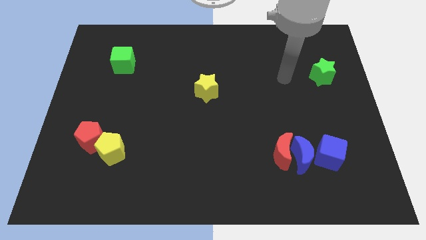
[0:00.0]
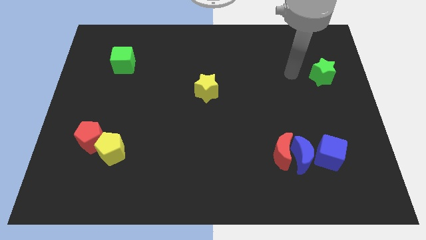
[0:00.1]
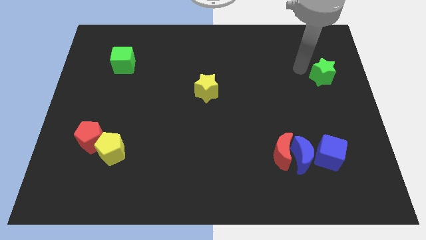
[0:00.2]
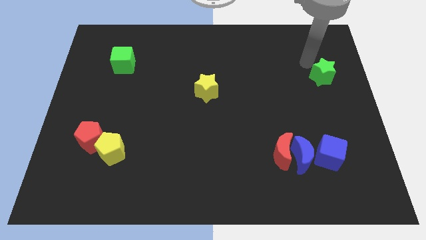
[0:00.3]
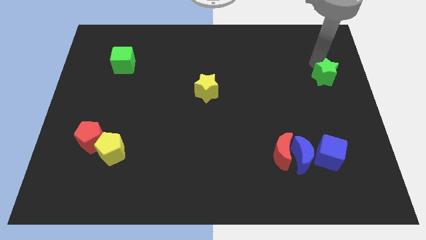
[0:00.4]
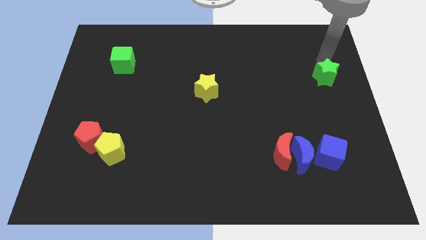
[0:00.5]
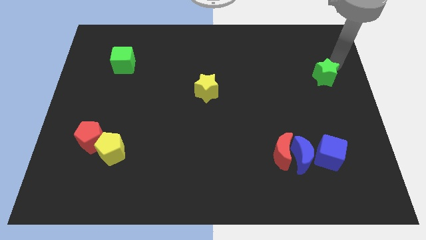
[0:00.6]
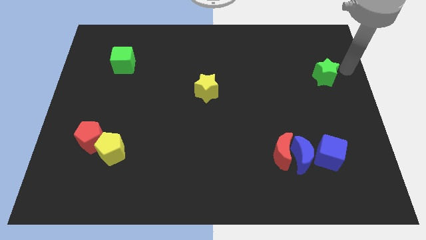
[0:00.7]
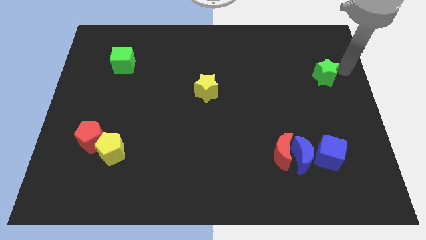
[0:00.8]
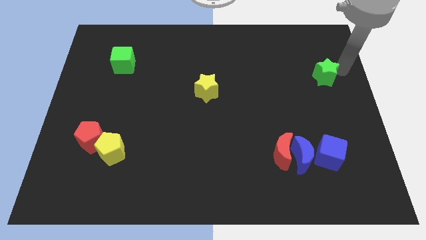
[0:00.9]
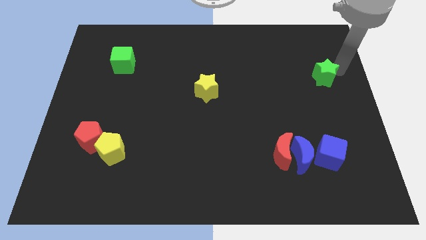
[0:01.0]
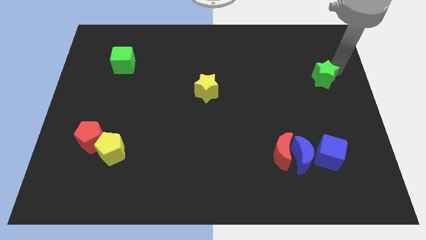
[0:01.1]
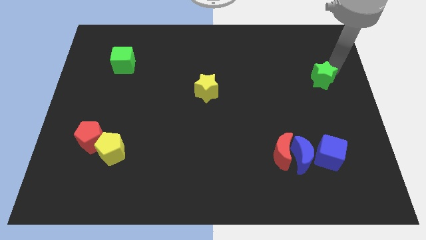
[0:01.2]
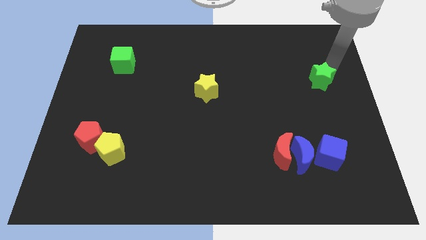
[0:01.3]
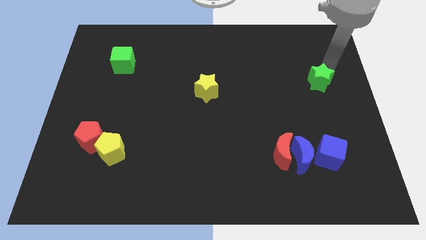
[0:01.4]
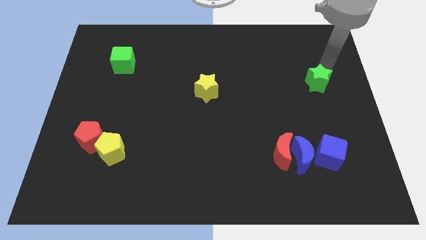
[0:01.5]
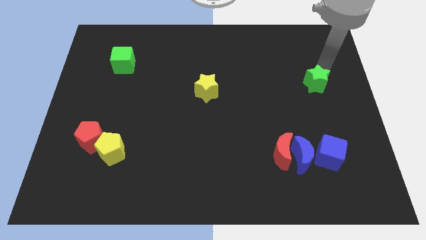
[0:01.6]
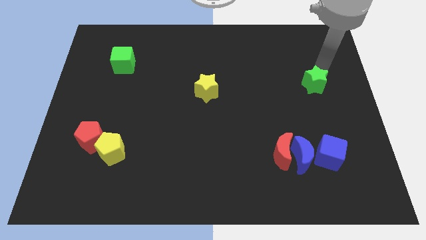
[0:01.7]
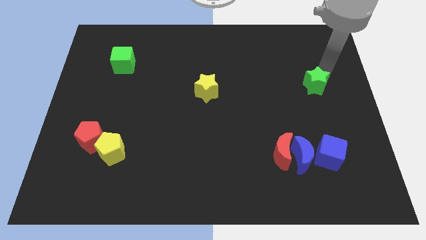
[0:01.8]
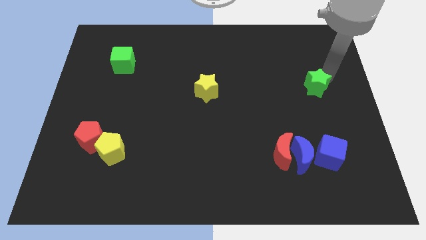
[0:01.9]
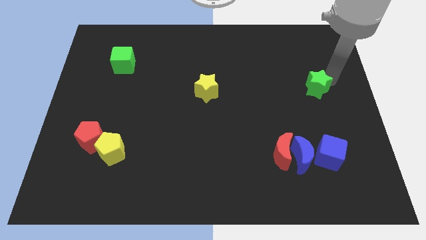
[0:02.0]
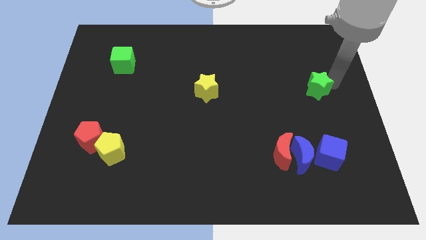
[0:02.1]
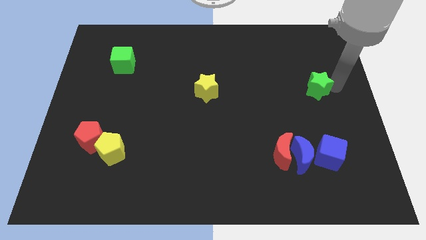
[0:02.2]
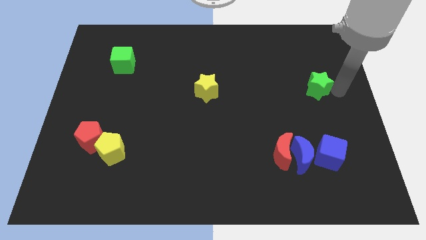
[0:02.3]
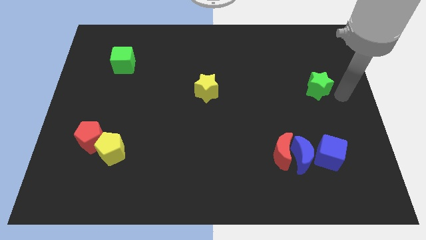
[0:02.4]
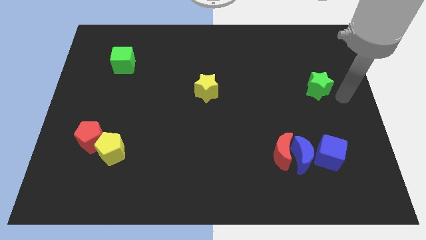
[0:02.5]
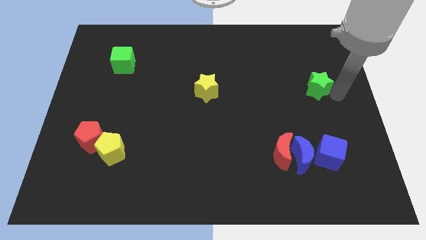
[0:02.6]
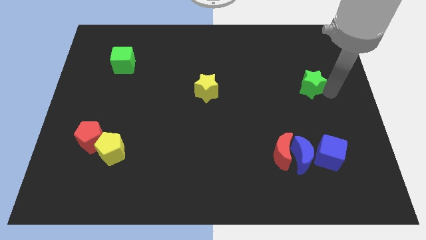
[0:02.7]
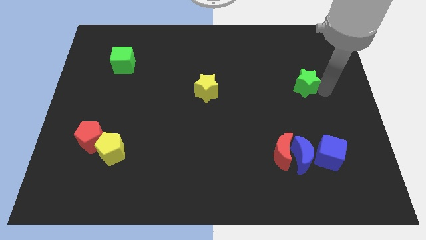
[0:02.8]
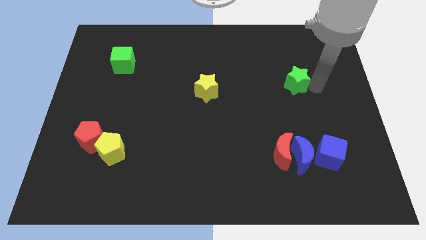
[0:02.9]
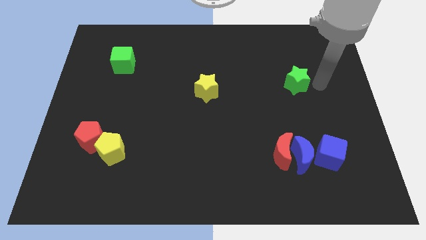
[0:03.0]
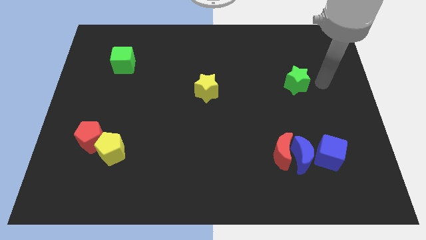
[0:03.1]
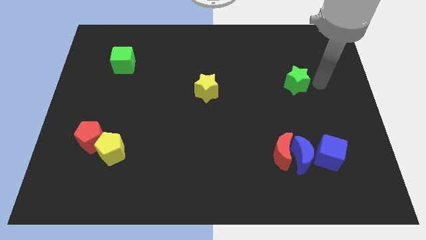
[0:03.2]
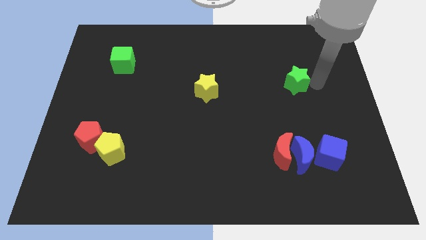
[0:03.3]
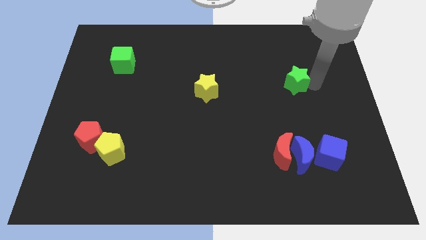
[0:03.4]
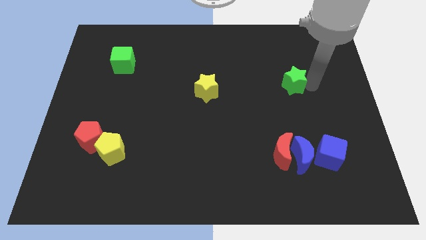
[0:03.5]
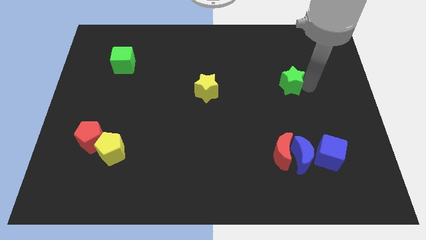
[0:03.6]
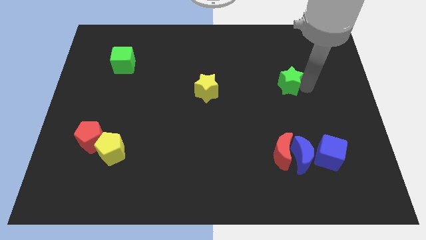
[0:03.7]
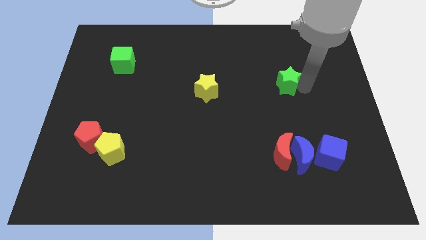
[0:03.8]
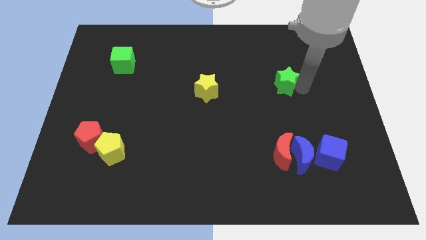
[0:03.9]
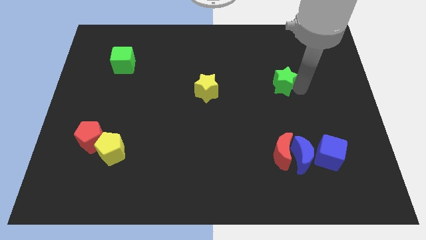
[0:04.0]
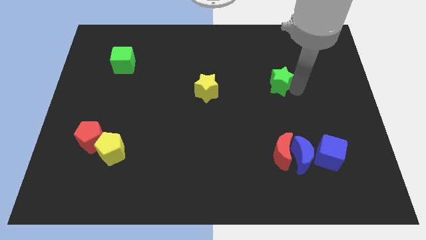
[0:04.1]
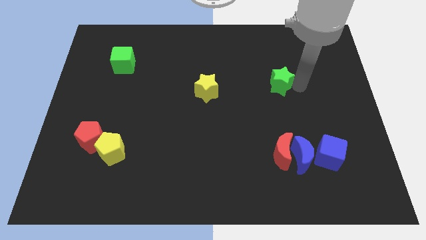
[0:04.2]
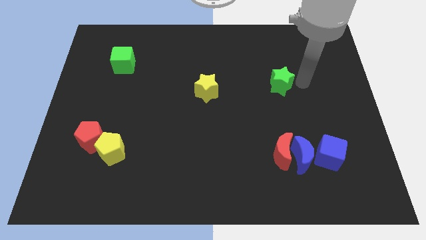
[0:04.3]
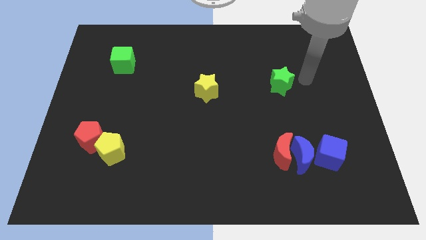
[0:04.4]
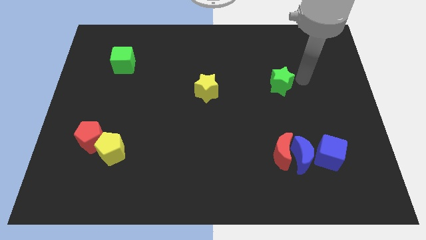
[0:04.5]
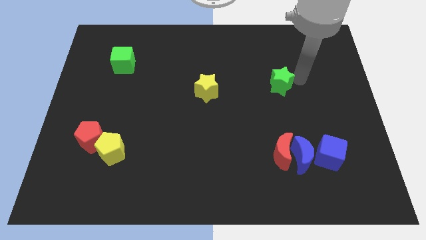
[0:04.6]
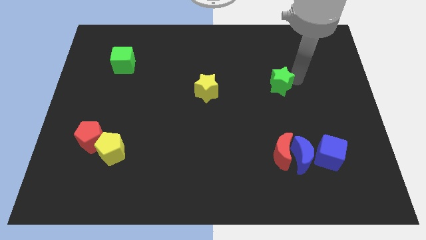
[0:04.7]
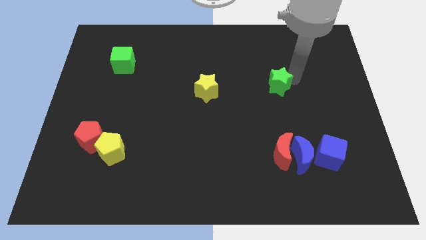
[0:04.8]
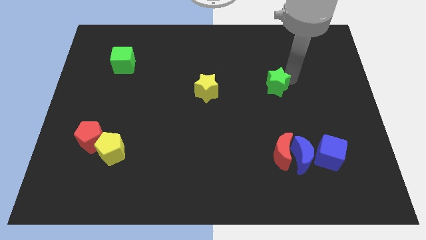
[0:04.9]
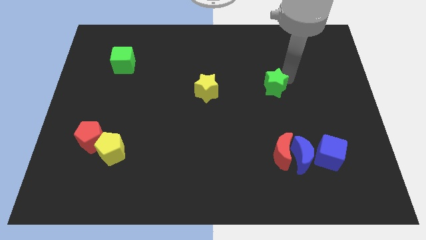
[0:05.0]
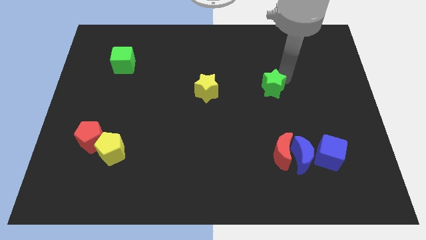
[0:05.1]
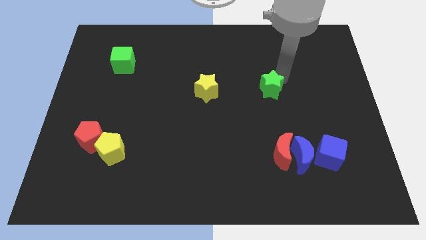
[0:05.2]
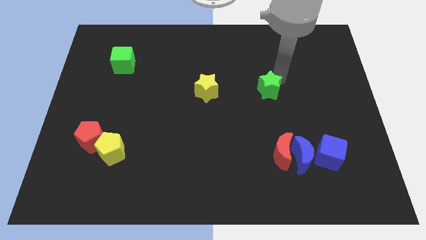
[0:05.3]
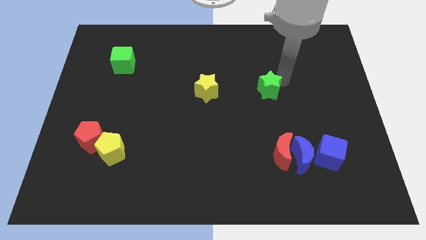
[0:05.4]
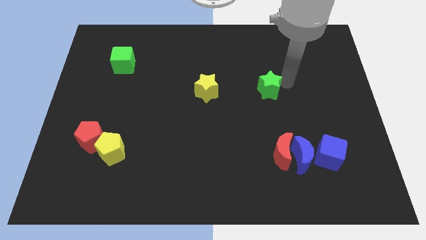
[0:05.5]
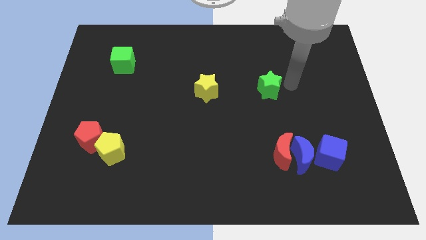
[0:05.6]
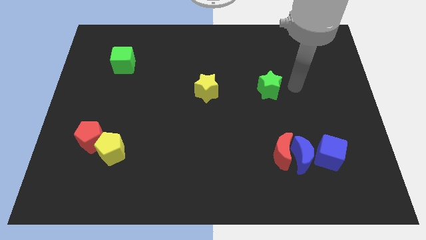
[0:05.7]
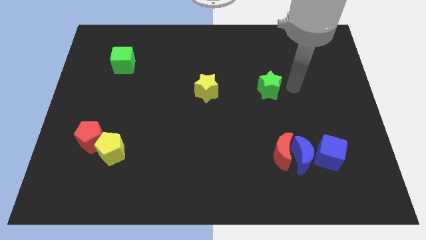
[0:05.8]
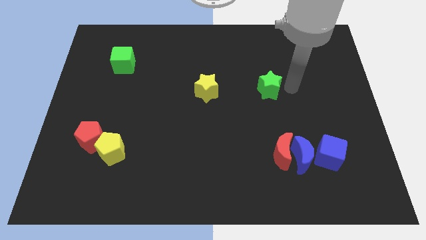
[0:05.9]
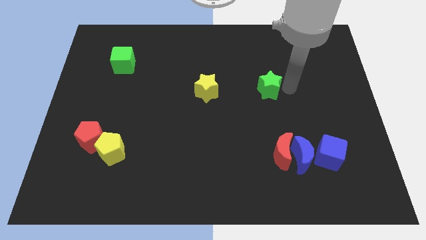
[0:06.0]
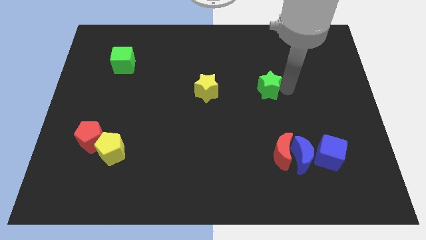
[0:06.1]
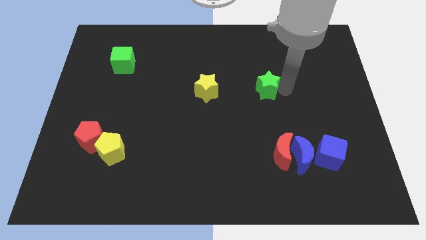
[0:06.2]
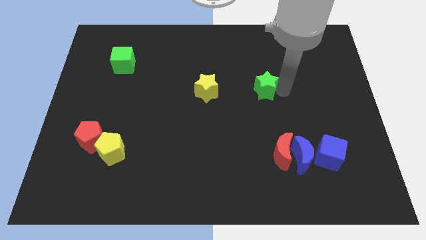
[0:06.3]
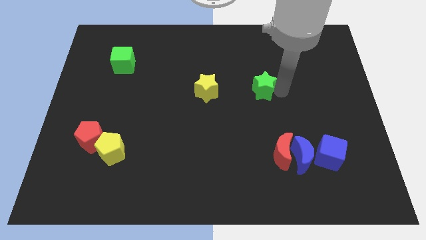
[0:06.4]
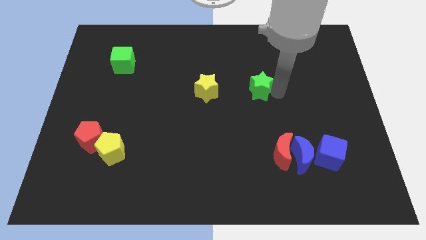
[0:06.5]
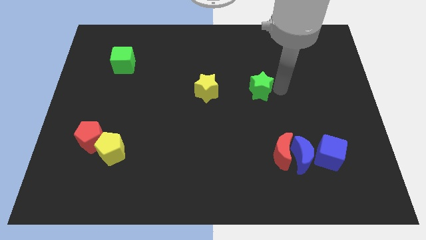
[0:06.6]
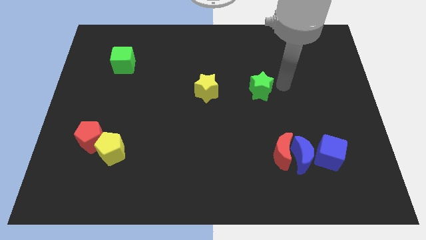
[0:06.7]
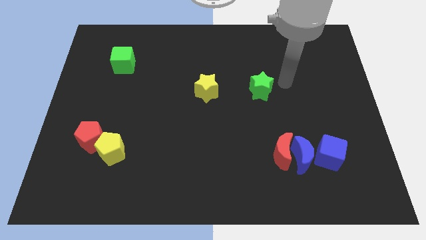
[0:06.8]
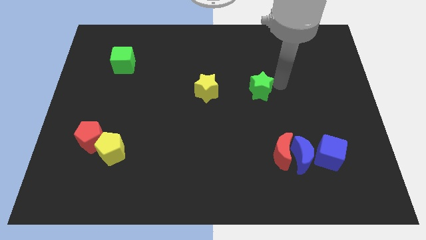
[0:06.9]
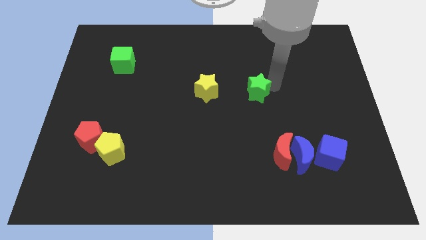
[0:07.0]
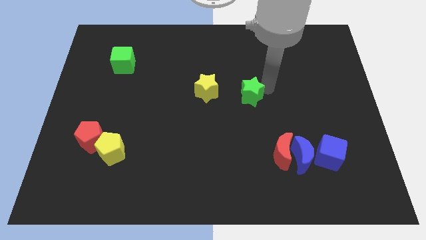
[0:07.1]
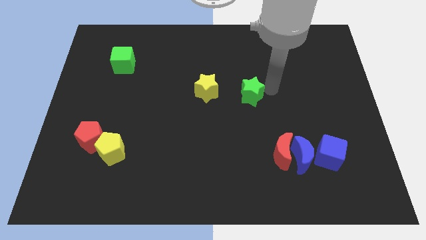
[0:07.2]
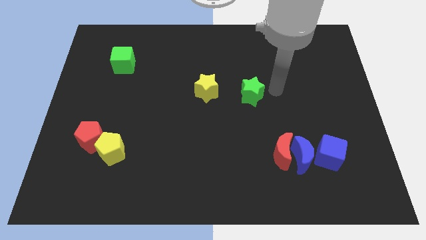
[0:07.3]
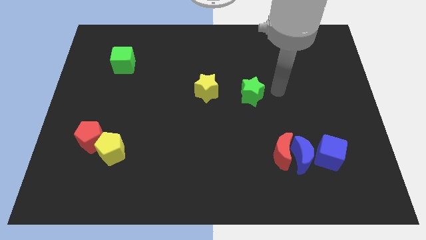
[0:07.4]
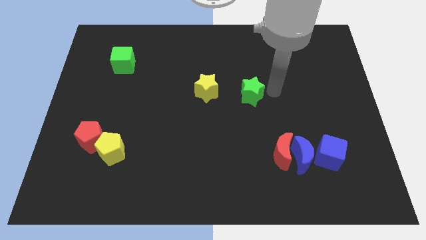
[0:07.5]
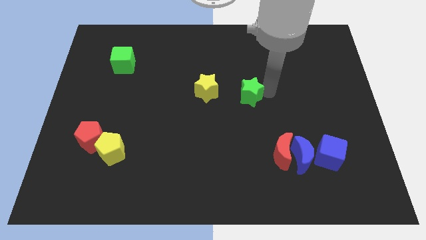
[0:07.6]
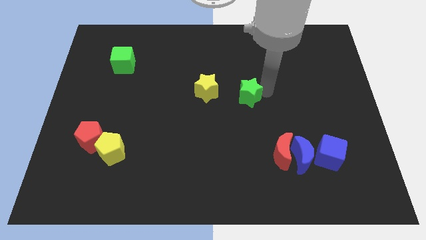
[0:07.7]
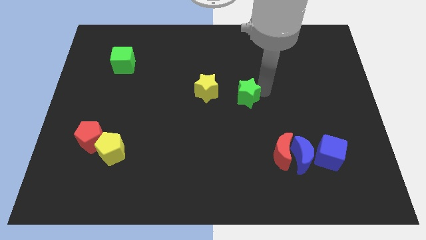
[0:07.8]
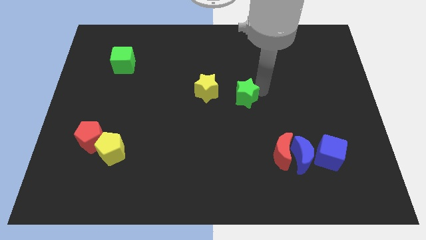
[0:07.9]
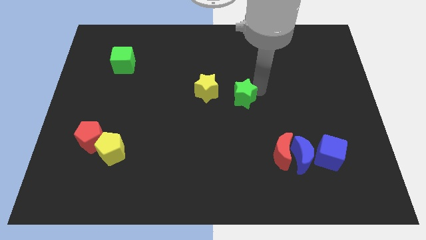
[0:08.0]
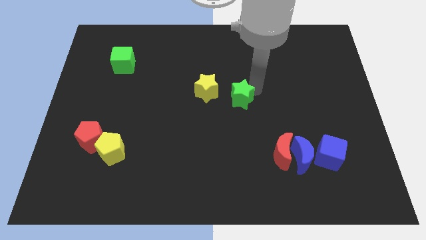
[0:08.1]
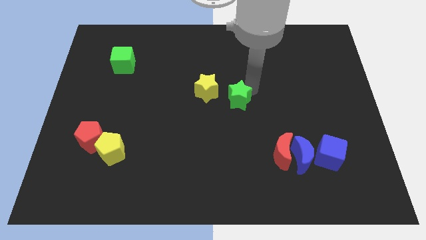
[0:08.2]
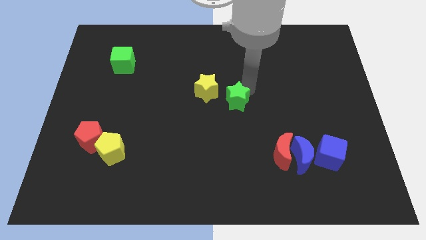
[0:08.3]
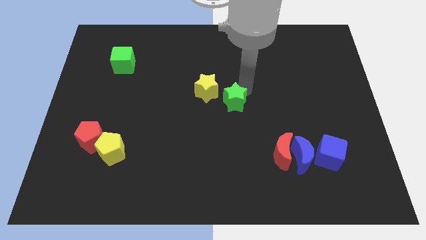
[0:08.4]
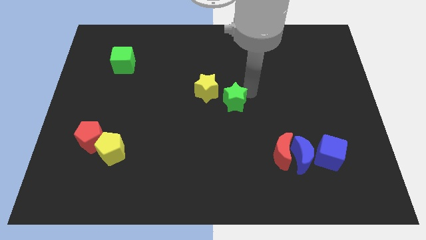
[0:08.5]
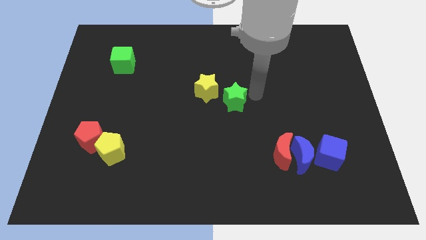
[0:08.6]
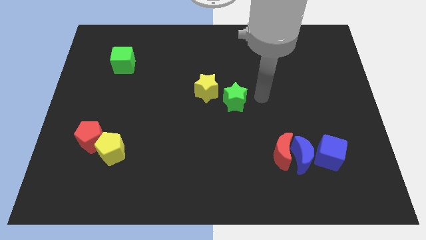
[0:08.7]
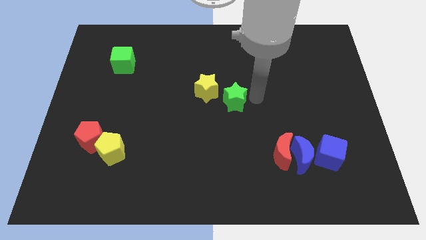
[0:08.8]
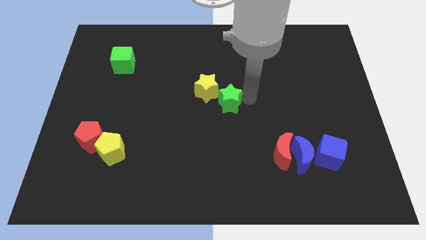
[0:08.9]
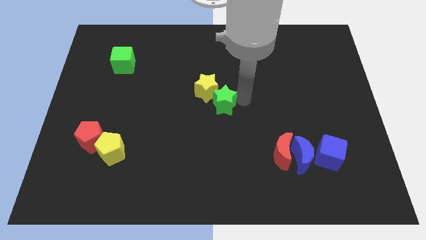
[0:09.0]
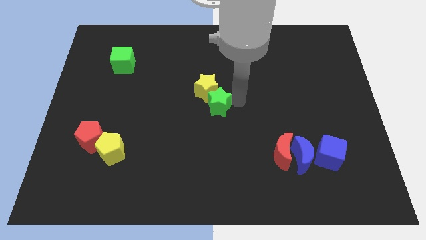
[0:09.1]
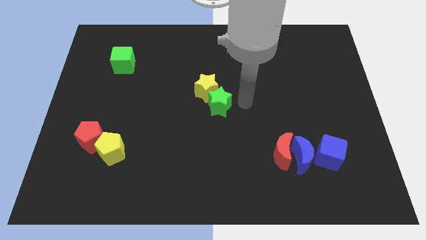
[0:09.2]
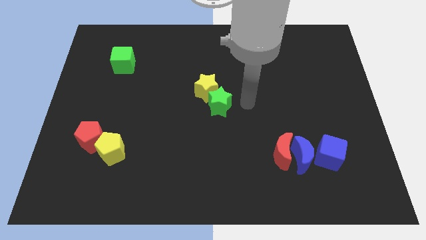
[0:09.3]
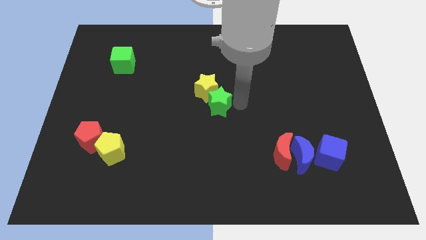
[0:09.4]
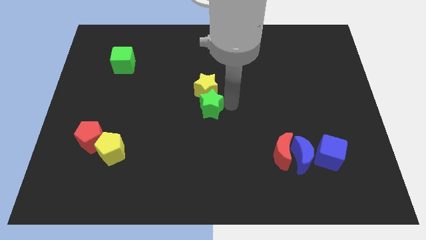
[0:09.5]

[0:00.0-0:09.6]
slide the green star to the bottom left side of the yellow star
